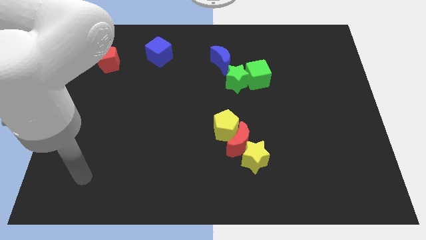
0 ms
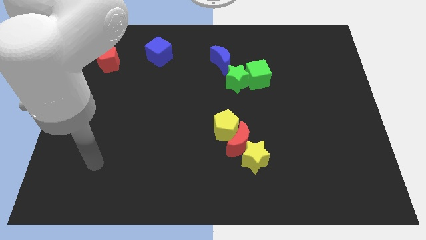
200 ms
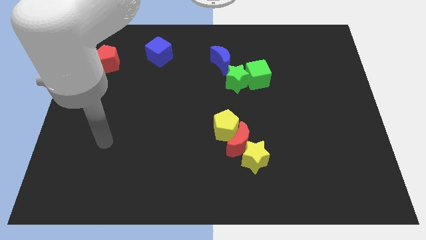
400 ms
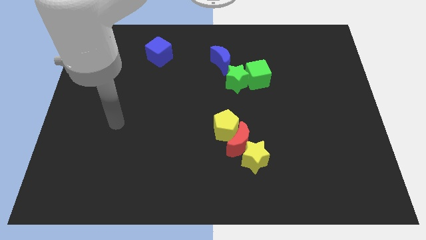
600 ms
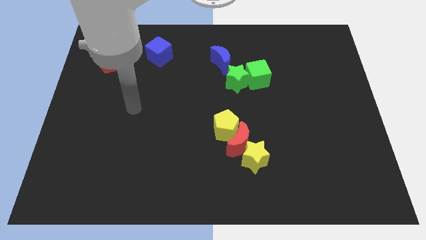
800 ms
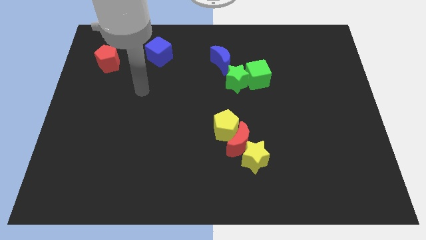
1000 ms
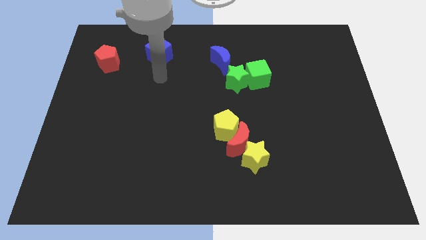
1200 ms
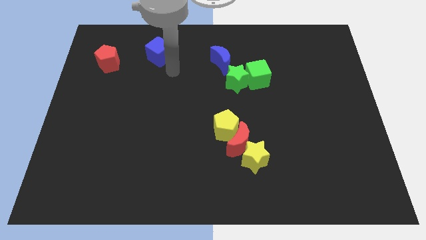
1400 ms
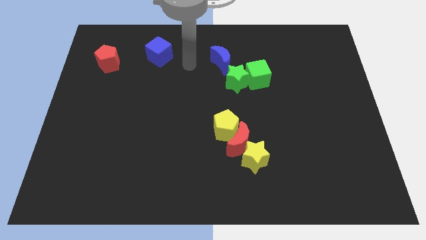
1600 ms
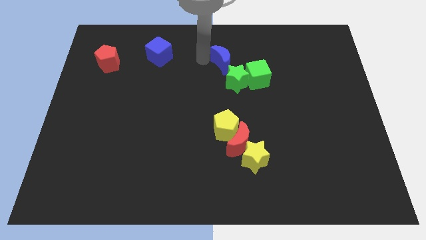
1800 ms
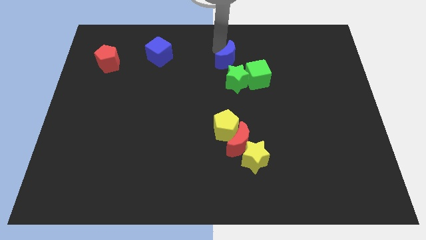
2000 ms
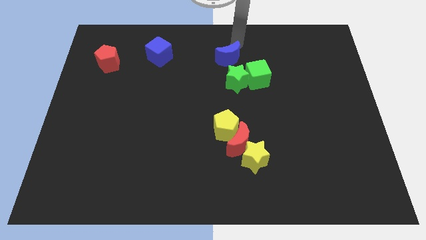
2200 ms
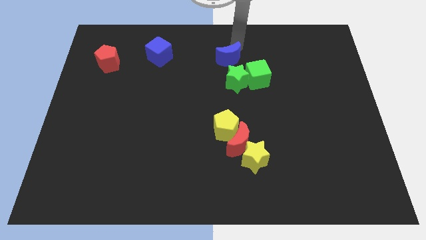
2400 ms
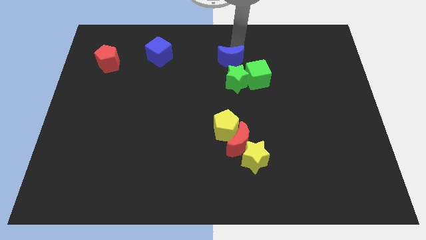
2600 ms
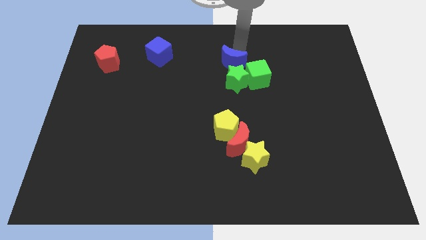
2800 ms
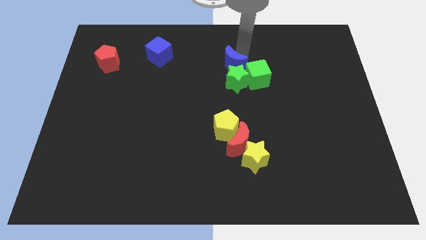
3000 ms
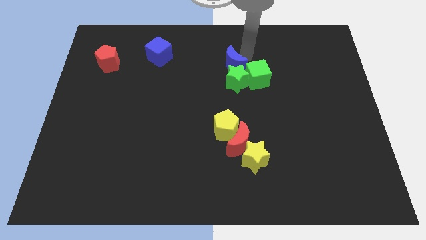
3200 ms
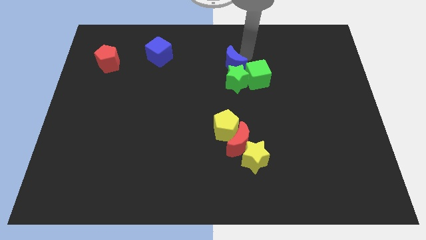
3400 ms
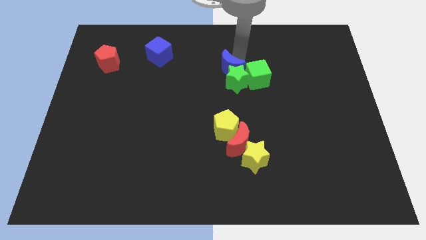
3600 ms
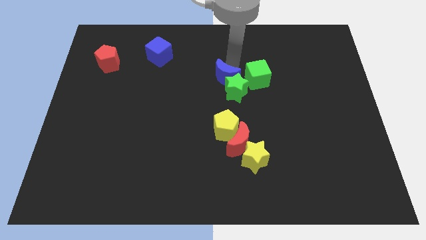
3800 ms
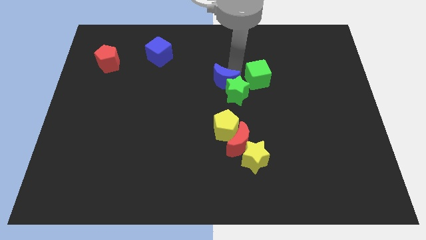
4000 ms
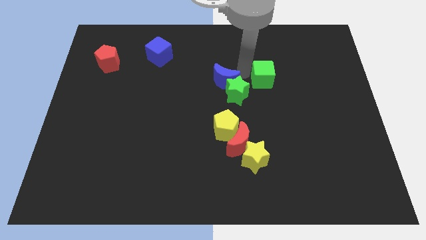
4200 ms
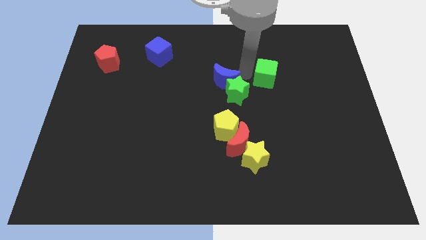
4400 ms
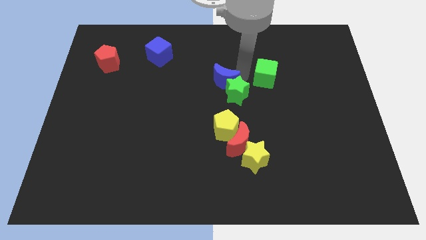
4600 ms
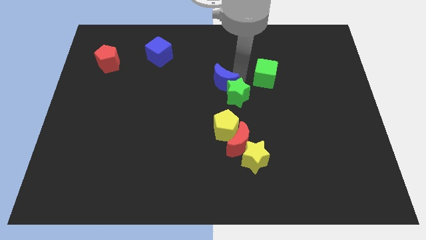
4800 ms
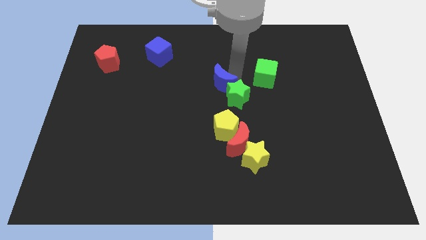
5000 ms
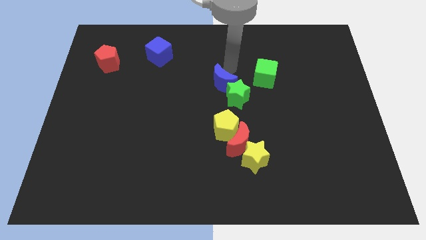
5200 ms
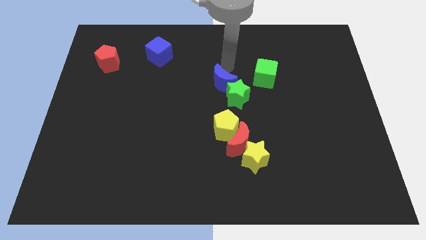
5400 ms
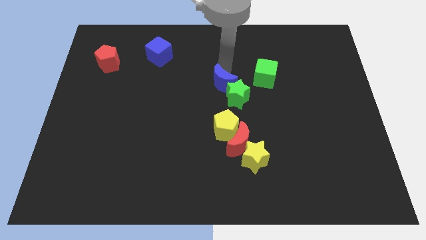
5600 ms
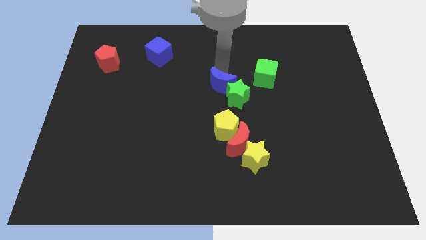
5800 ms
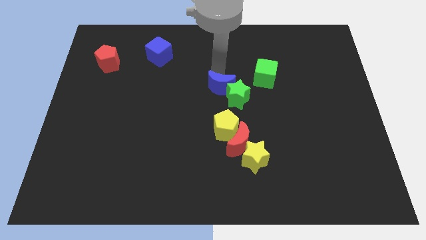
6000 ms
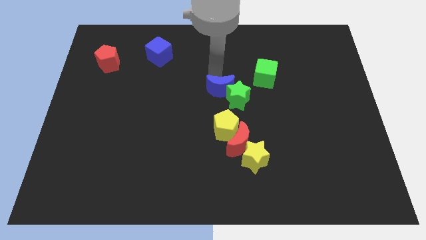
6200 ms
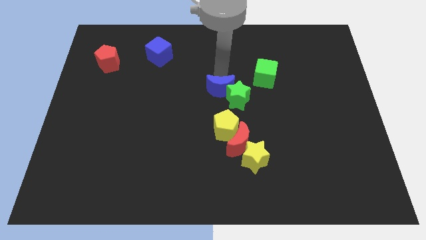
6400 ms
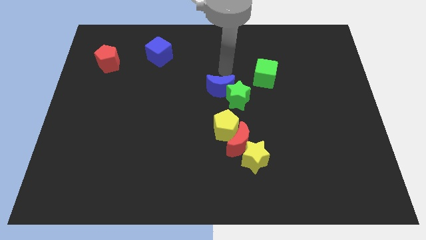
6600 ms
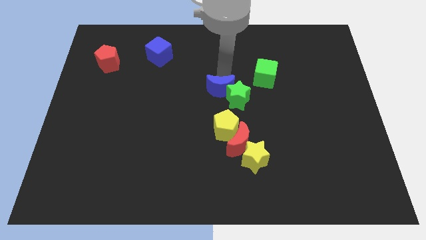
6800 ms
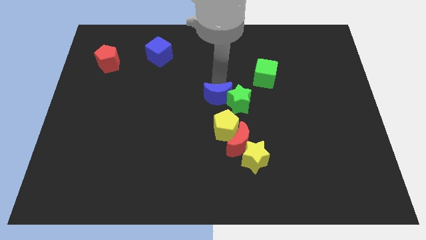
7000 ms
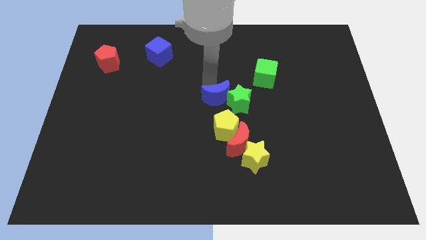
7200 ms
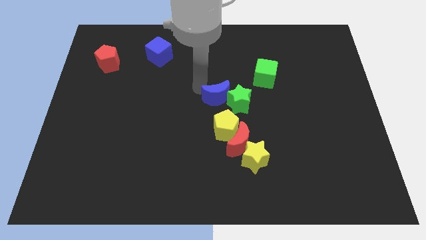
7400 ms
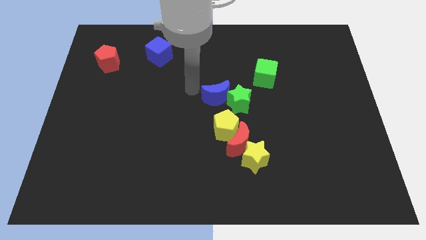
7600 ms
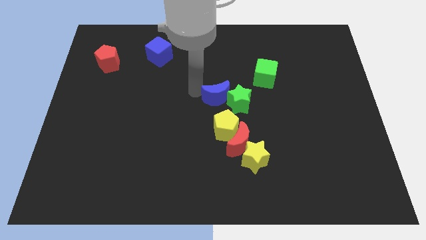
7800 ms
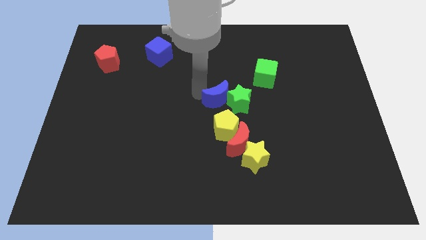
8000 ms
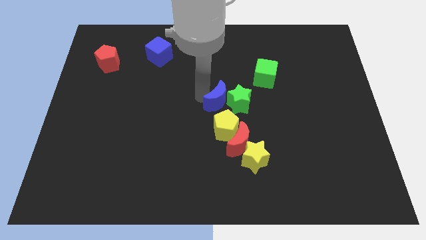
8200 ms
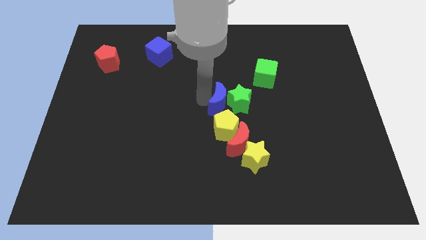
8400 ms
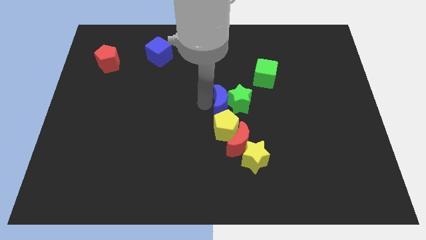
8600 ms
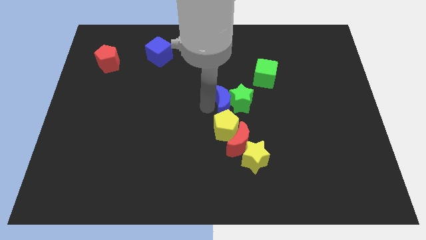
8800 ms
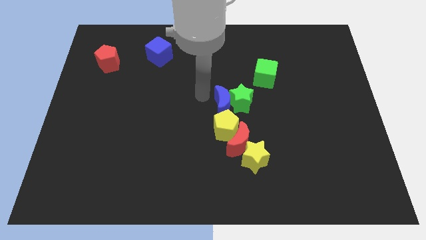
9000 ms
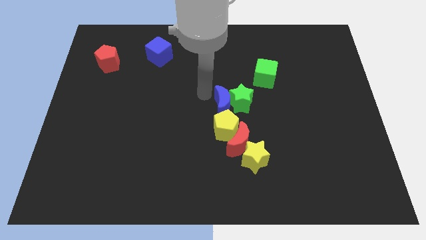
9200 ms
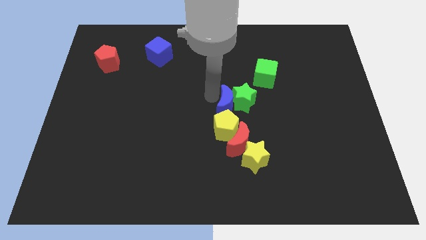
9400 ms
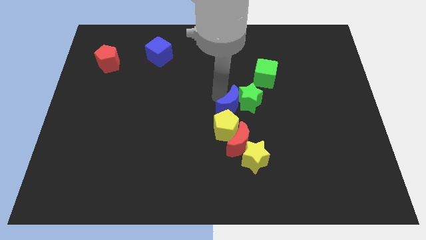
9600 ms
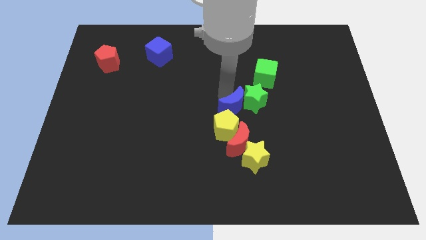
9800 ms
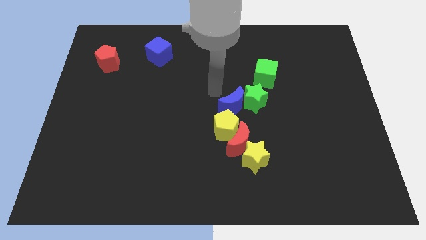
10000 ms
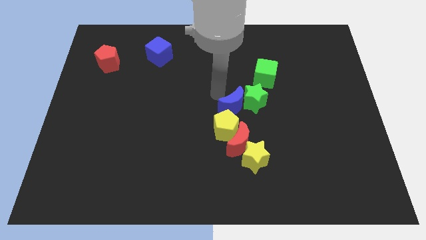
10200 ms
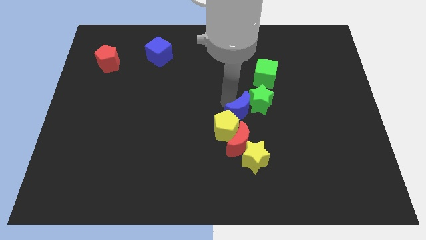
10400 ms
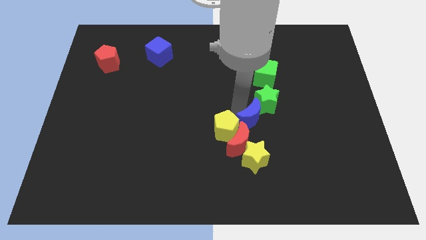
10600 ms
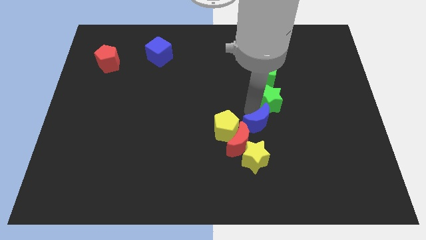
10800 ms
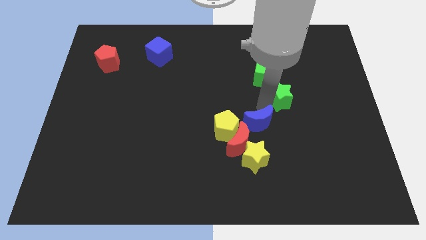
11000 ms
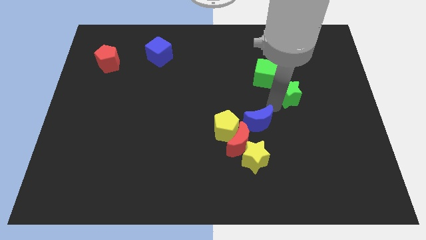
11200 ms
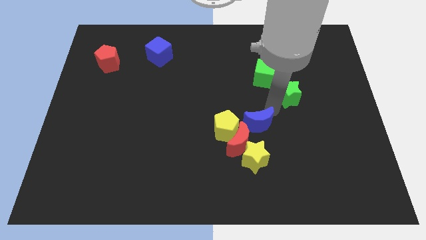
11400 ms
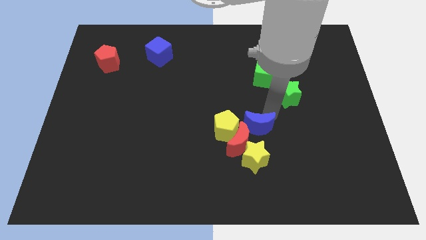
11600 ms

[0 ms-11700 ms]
put the blue moon next to the red moon

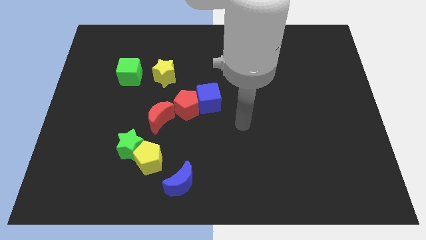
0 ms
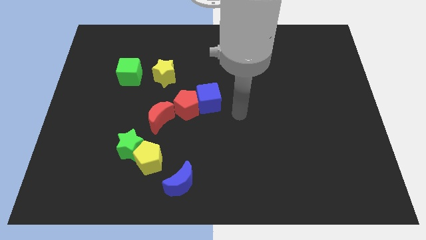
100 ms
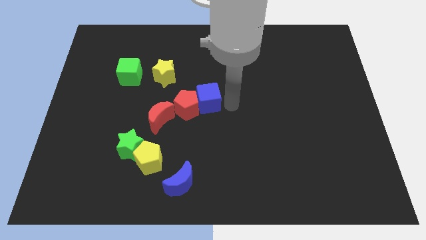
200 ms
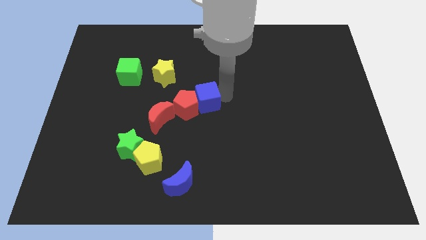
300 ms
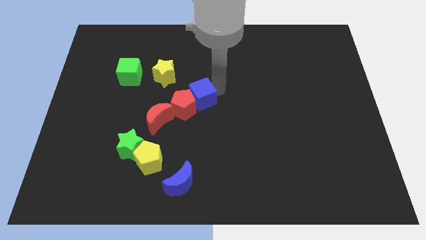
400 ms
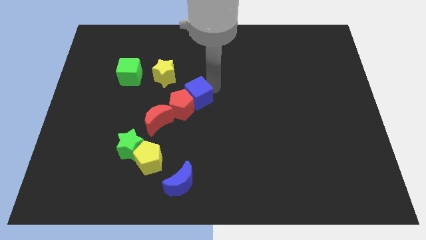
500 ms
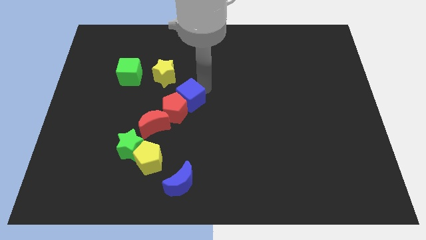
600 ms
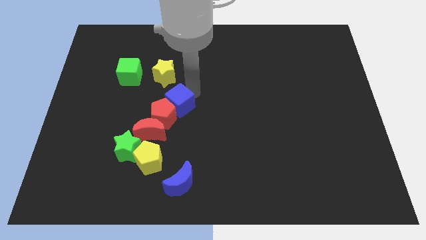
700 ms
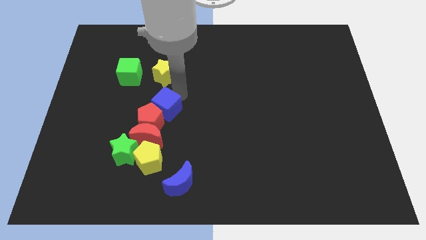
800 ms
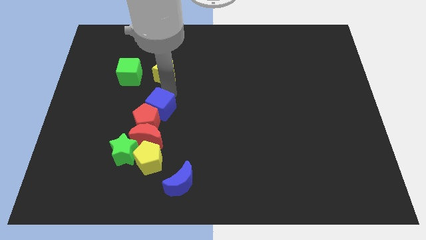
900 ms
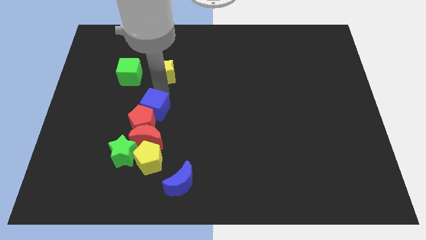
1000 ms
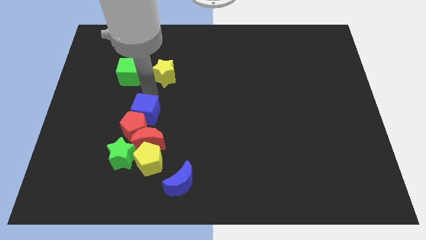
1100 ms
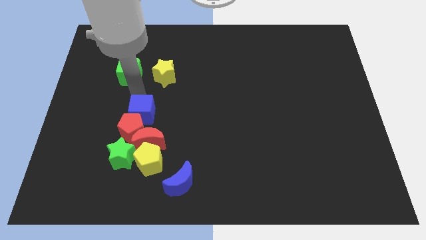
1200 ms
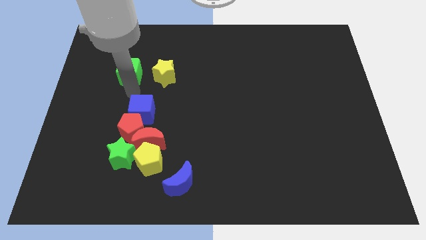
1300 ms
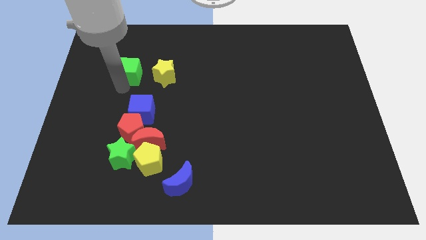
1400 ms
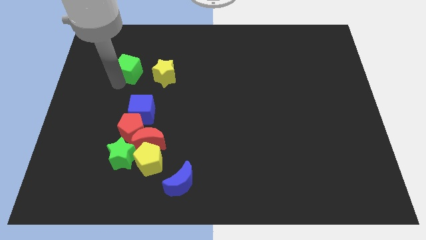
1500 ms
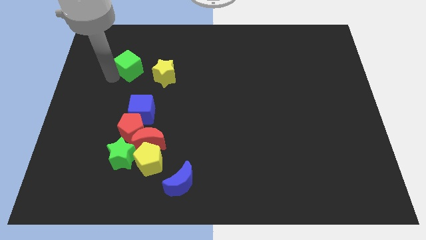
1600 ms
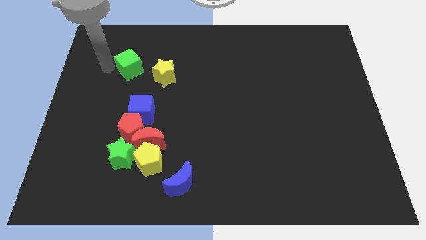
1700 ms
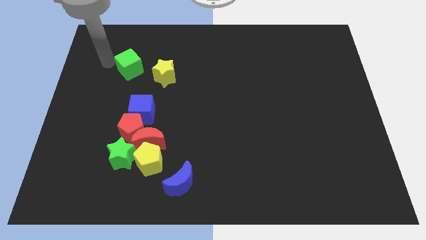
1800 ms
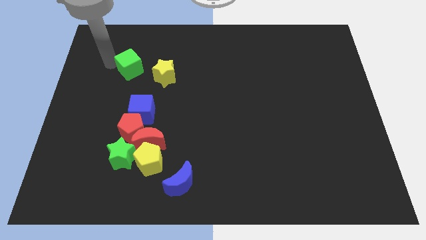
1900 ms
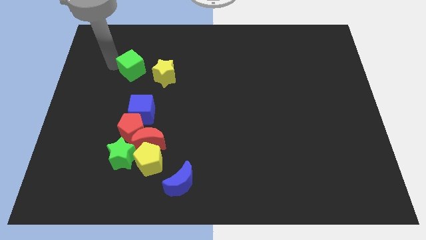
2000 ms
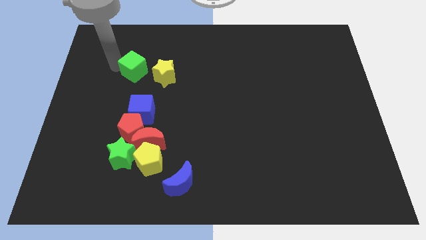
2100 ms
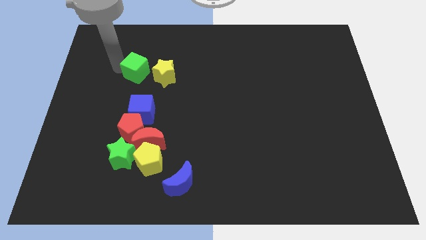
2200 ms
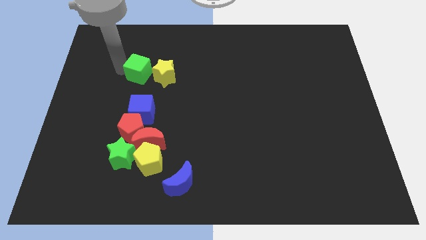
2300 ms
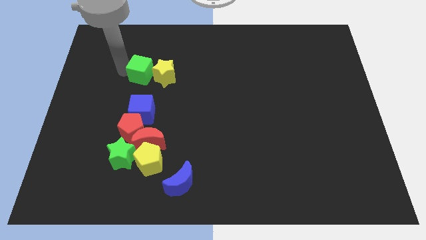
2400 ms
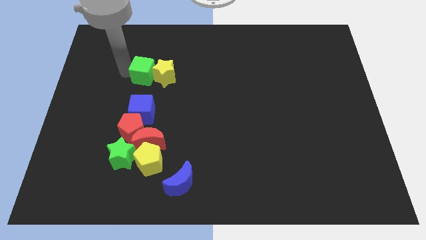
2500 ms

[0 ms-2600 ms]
move the green cube close to the yellow star
